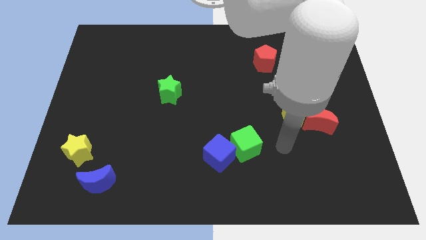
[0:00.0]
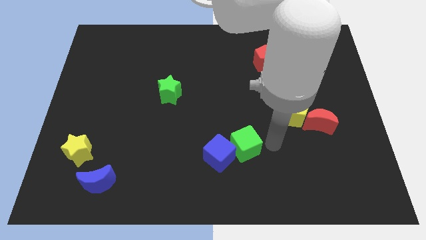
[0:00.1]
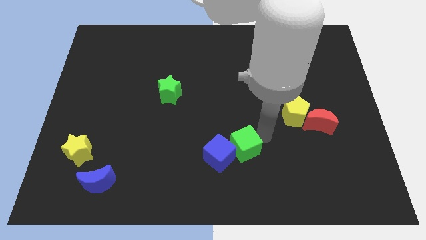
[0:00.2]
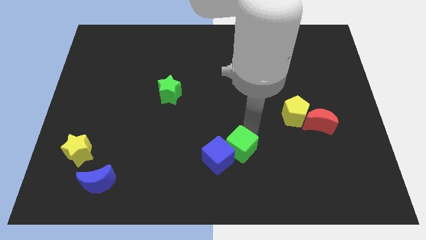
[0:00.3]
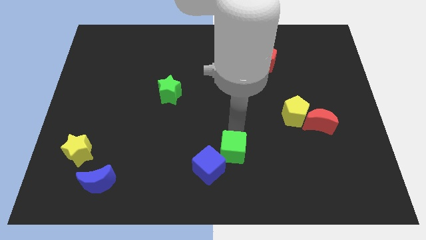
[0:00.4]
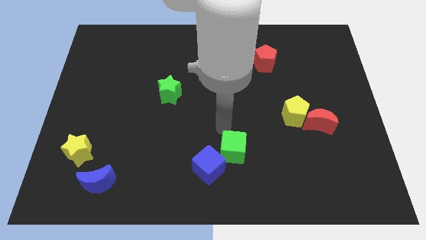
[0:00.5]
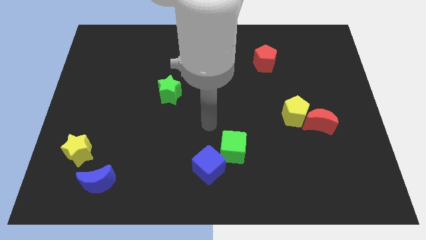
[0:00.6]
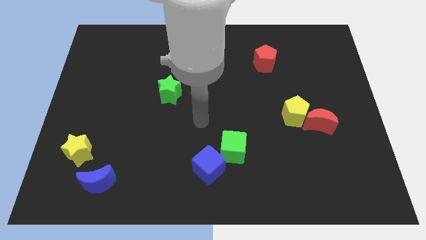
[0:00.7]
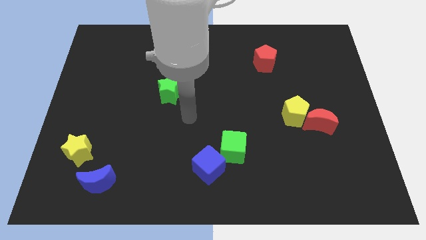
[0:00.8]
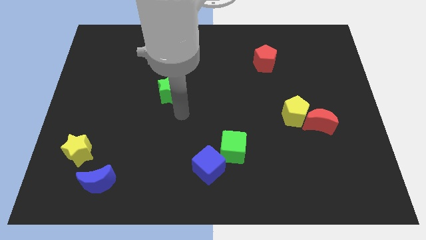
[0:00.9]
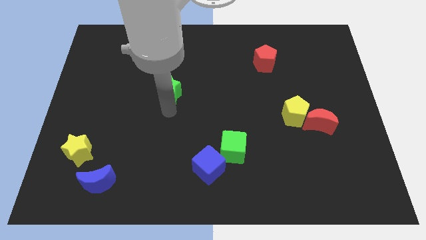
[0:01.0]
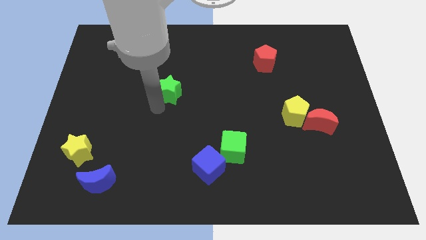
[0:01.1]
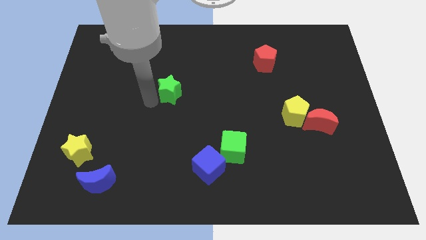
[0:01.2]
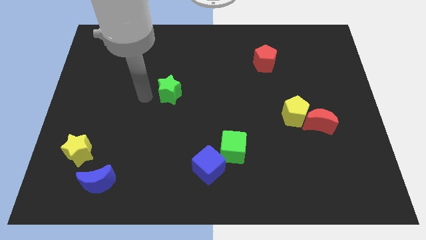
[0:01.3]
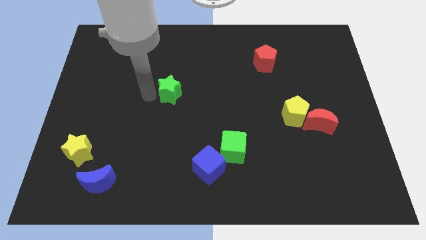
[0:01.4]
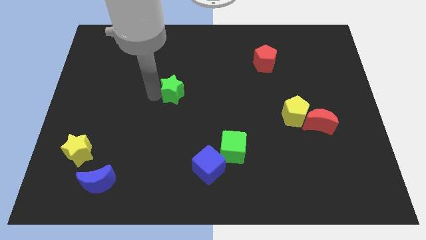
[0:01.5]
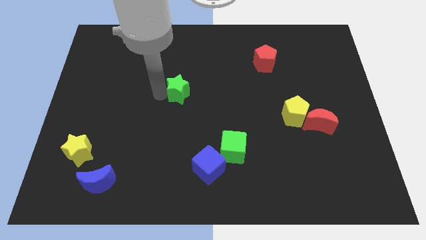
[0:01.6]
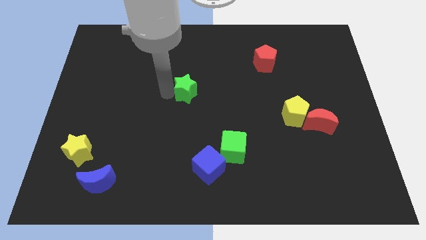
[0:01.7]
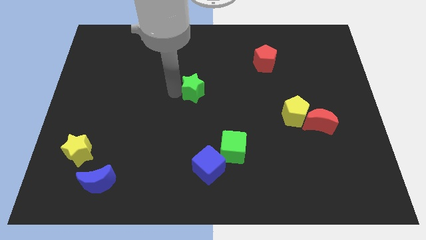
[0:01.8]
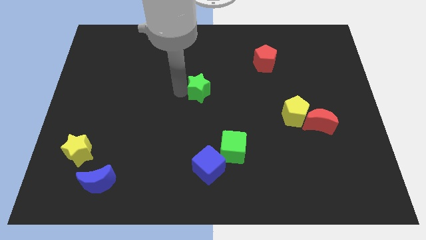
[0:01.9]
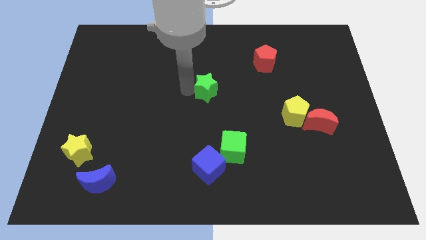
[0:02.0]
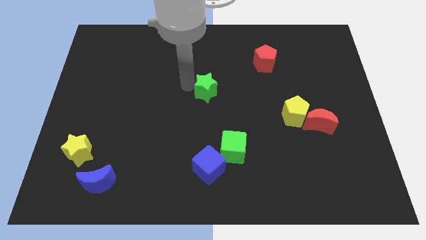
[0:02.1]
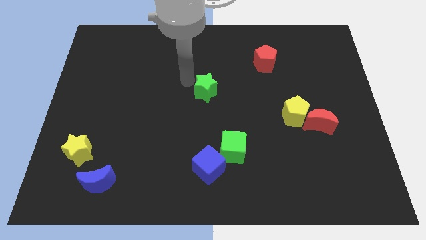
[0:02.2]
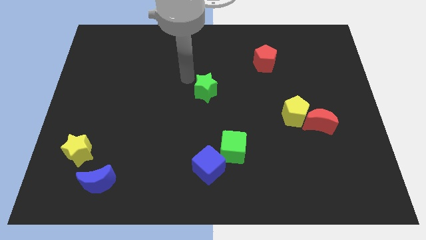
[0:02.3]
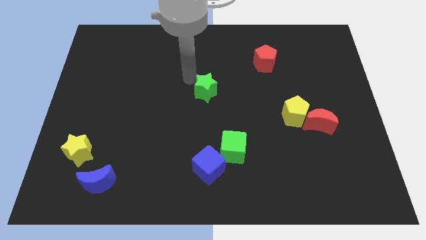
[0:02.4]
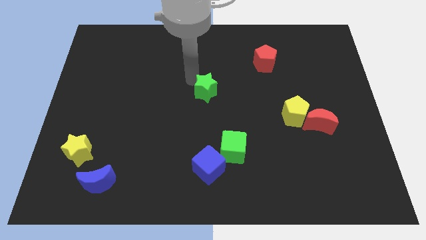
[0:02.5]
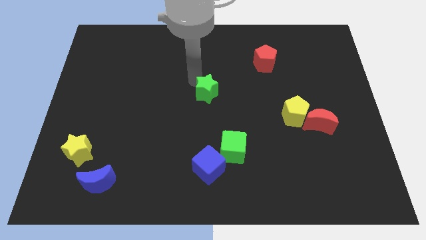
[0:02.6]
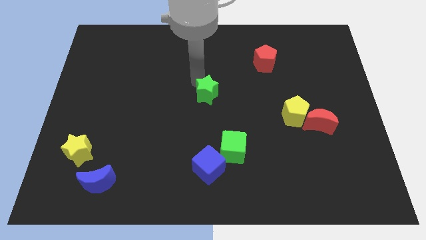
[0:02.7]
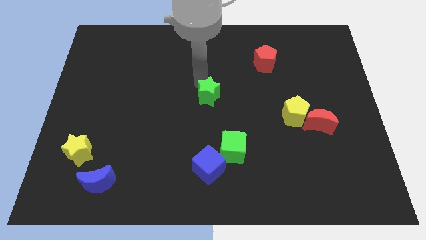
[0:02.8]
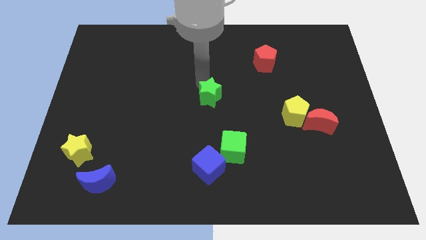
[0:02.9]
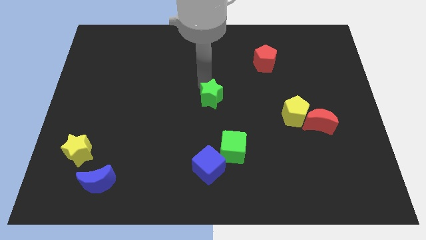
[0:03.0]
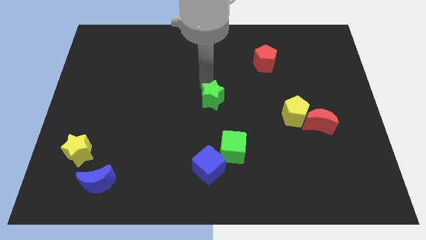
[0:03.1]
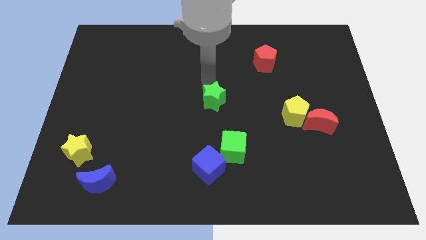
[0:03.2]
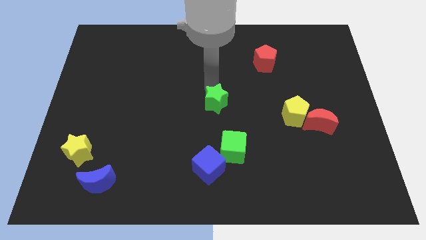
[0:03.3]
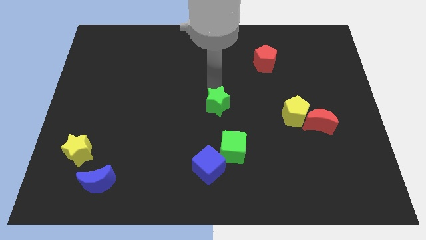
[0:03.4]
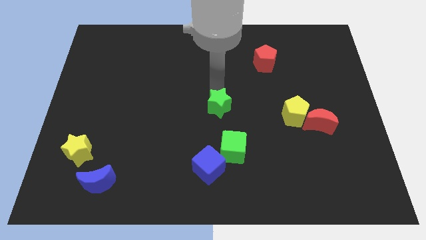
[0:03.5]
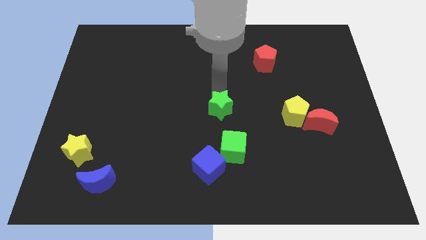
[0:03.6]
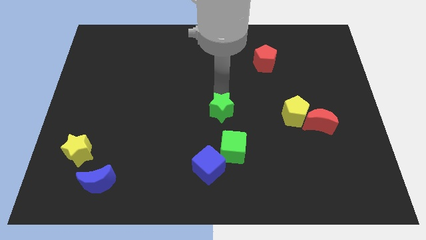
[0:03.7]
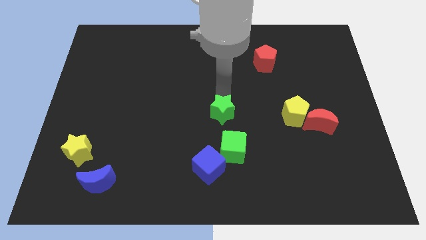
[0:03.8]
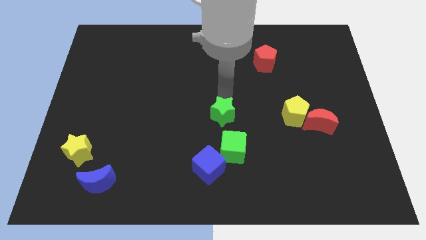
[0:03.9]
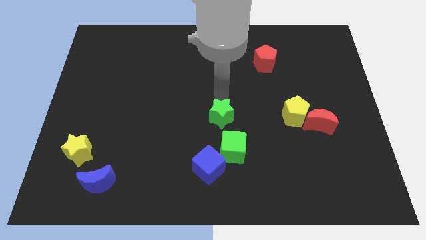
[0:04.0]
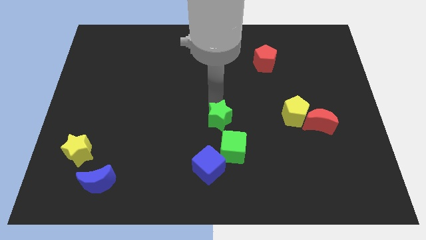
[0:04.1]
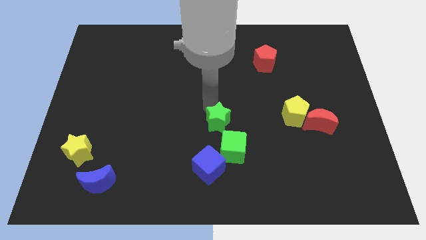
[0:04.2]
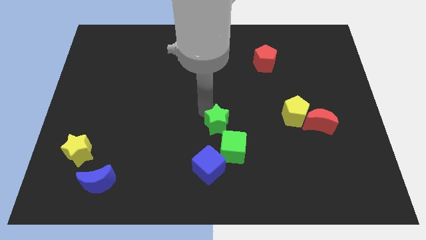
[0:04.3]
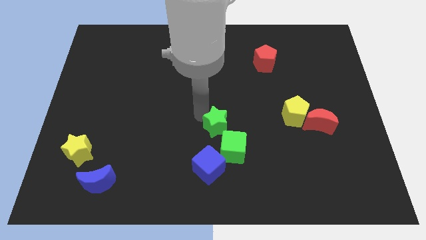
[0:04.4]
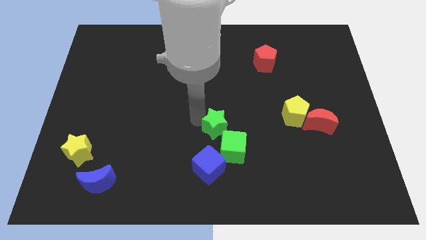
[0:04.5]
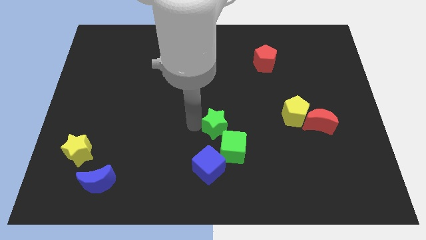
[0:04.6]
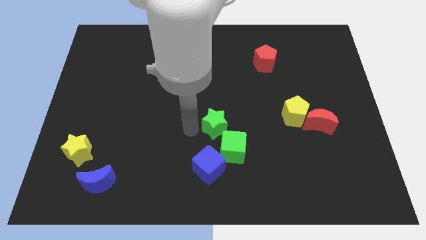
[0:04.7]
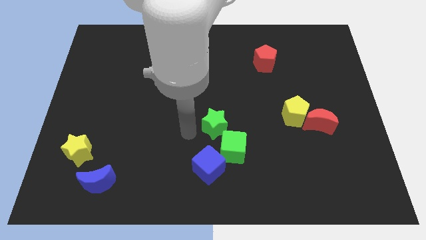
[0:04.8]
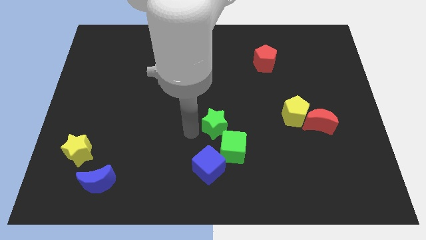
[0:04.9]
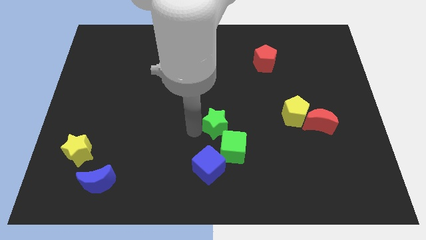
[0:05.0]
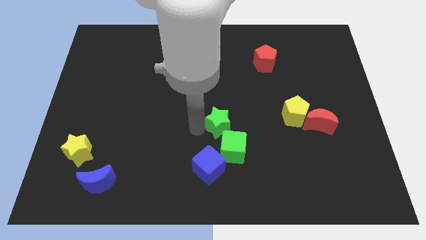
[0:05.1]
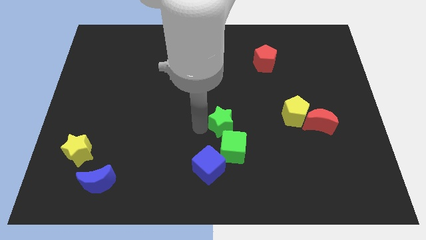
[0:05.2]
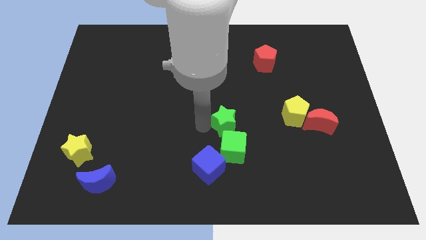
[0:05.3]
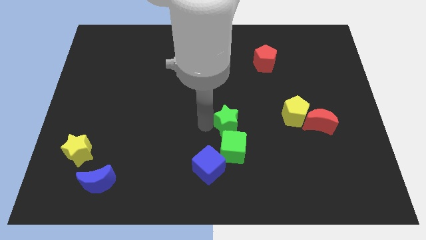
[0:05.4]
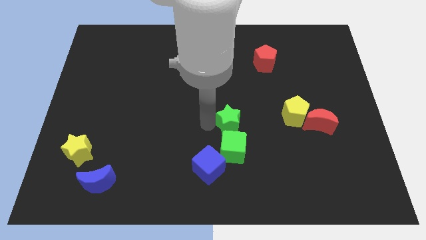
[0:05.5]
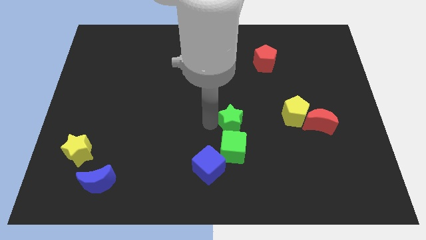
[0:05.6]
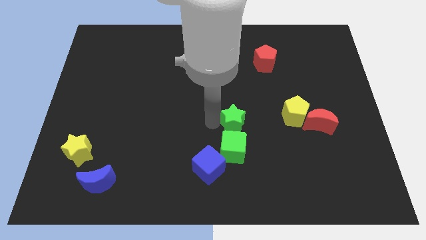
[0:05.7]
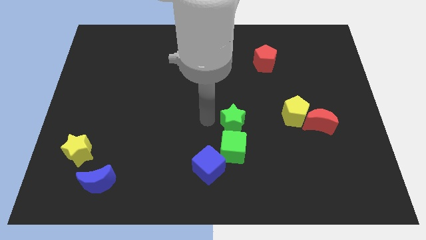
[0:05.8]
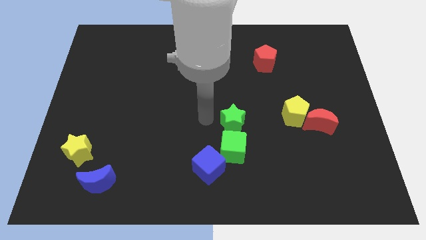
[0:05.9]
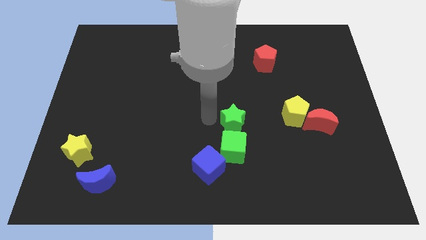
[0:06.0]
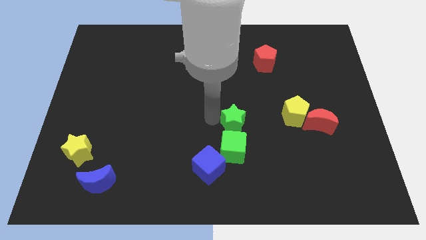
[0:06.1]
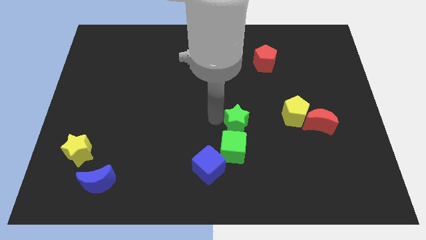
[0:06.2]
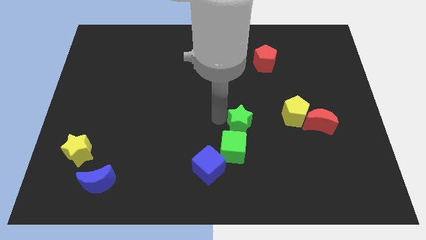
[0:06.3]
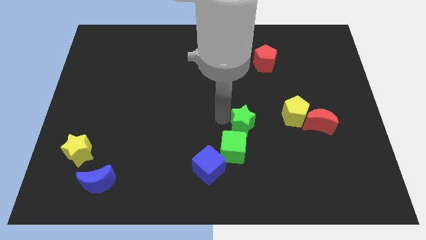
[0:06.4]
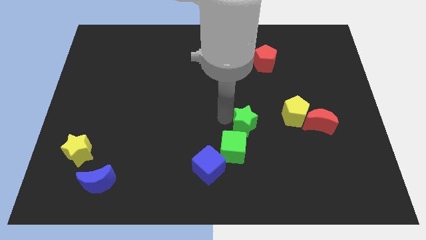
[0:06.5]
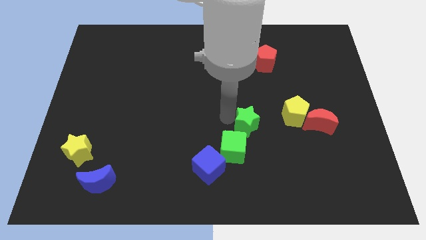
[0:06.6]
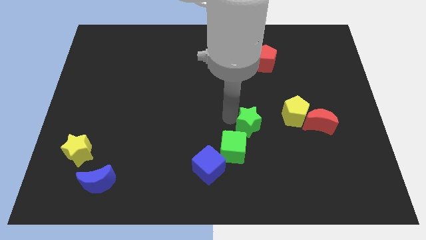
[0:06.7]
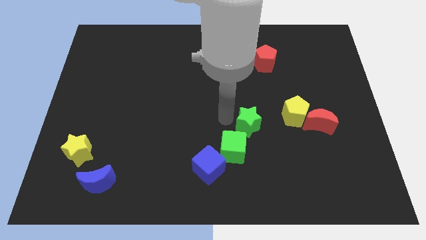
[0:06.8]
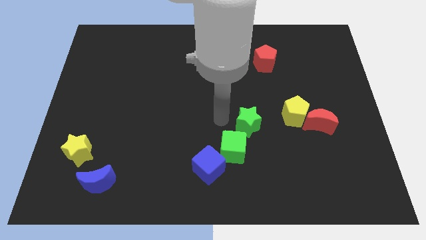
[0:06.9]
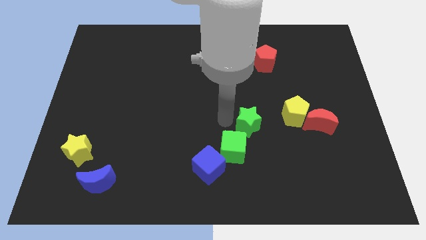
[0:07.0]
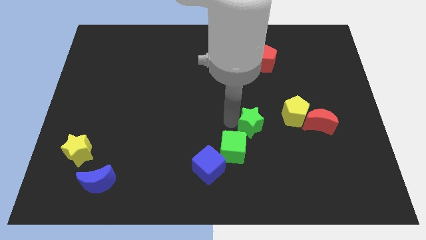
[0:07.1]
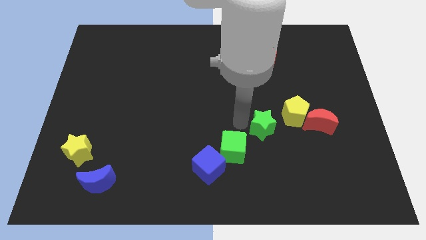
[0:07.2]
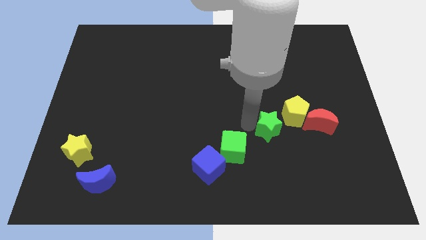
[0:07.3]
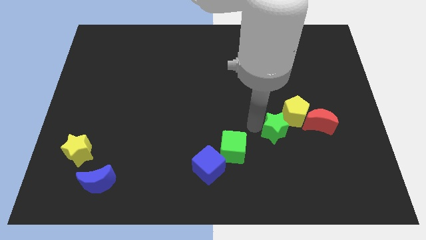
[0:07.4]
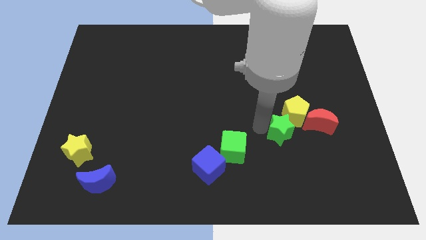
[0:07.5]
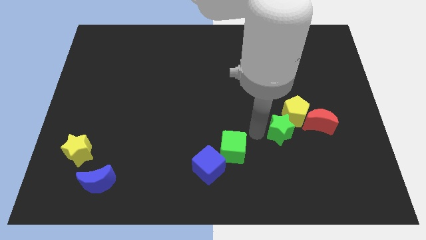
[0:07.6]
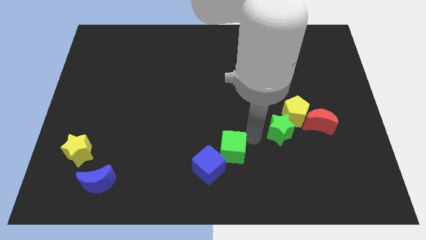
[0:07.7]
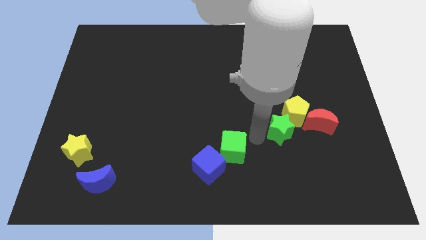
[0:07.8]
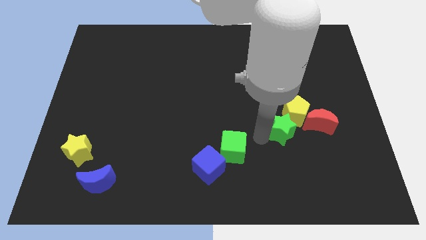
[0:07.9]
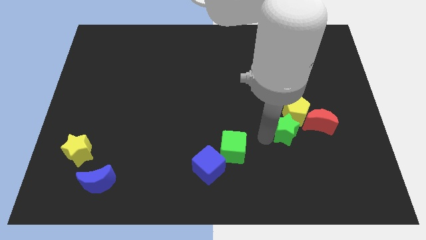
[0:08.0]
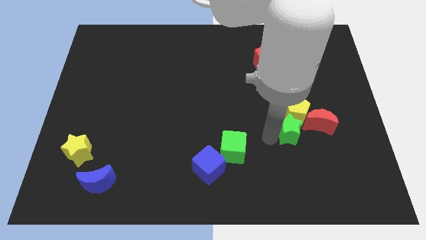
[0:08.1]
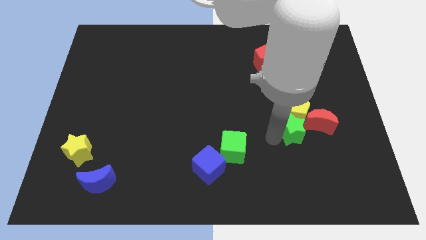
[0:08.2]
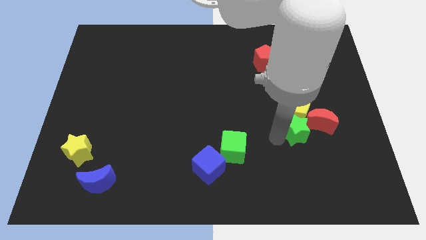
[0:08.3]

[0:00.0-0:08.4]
move the green star next to the red moon
